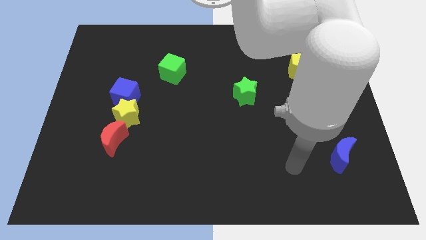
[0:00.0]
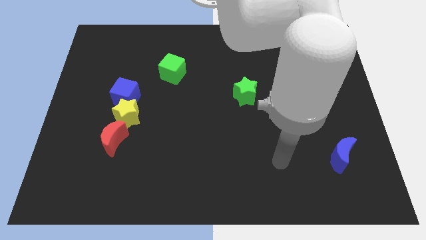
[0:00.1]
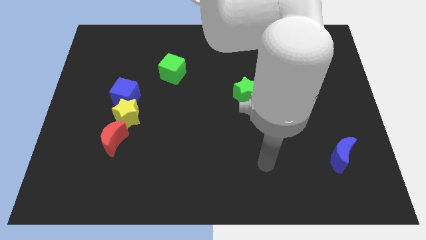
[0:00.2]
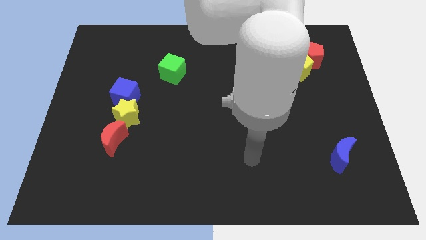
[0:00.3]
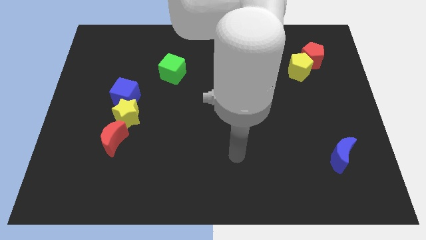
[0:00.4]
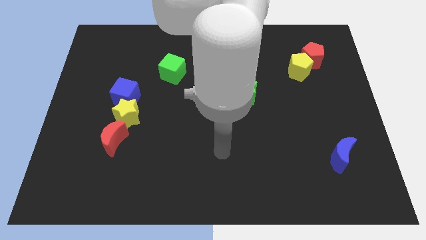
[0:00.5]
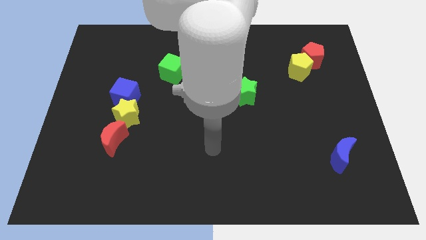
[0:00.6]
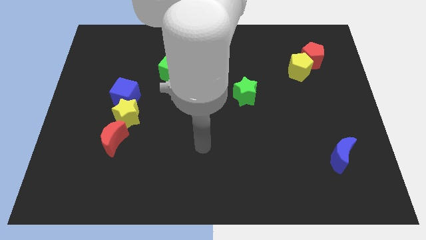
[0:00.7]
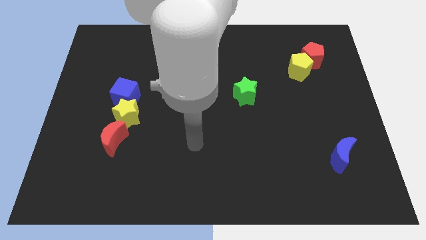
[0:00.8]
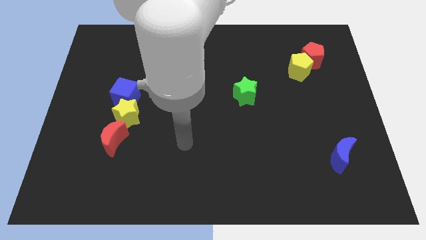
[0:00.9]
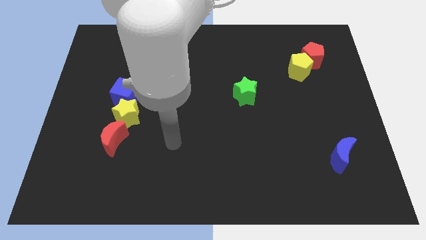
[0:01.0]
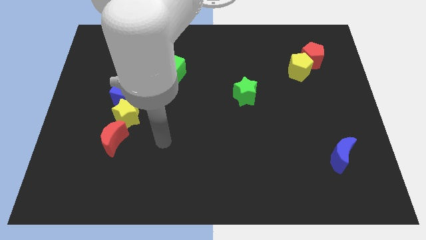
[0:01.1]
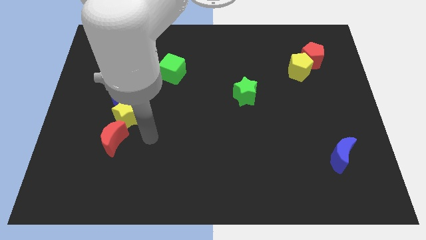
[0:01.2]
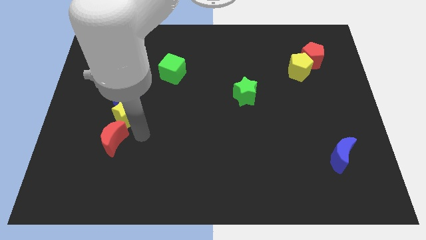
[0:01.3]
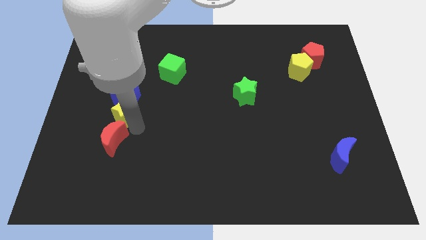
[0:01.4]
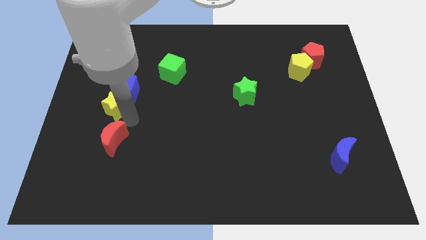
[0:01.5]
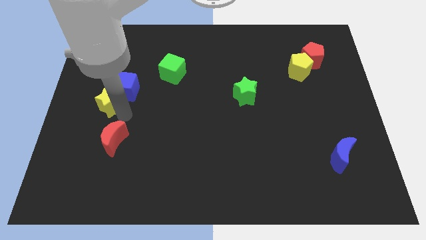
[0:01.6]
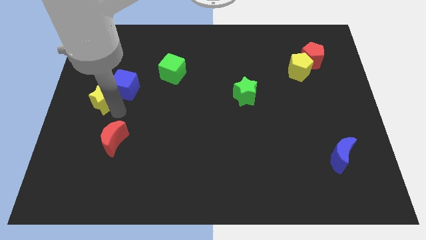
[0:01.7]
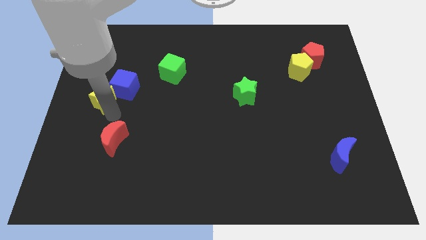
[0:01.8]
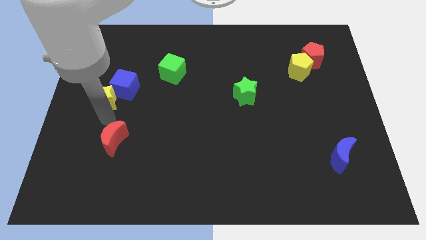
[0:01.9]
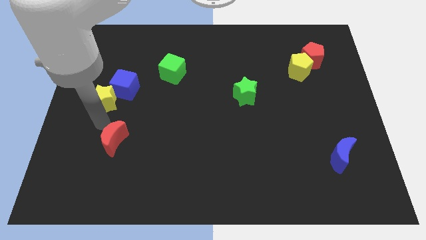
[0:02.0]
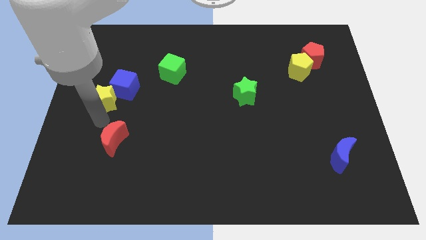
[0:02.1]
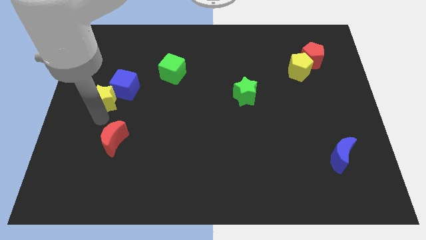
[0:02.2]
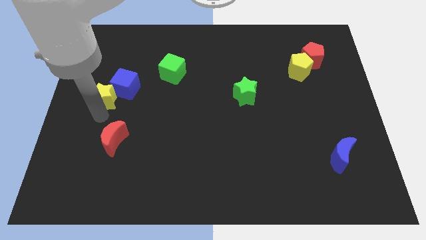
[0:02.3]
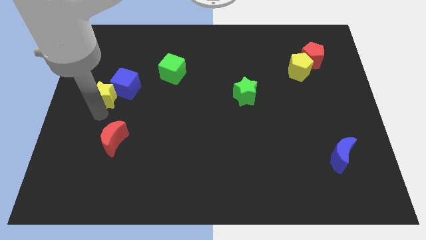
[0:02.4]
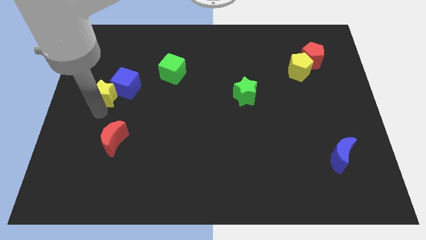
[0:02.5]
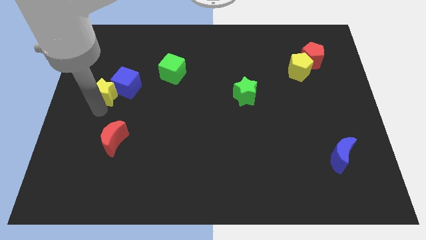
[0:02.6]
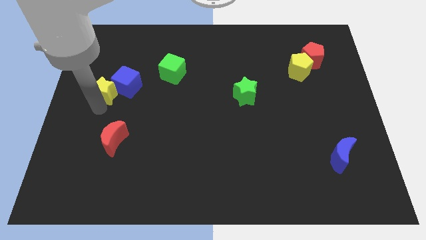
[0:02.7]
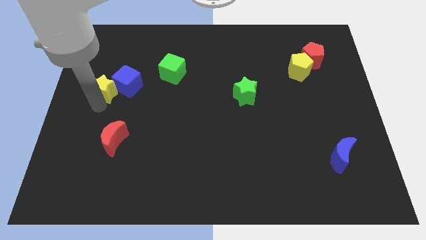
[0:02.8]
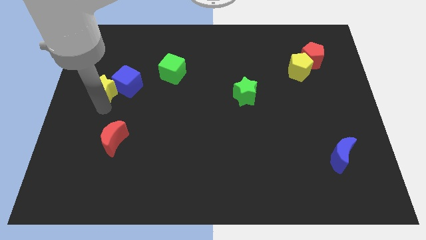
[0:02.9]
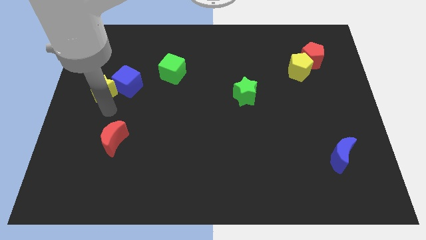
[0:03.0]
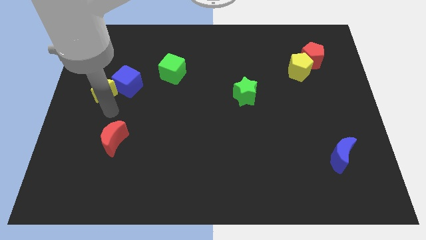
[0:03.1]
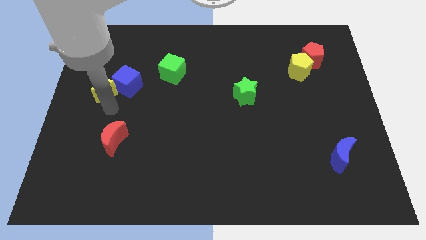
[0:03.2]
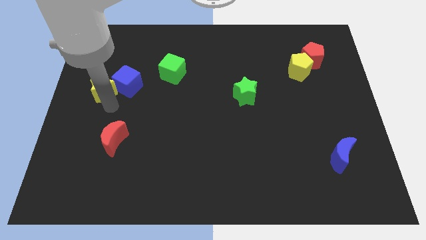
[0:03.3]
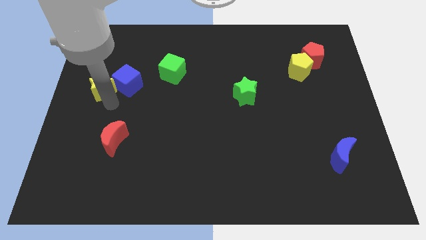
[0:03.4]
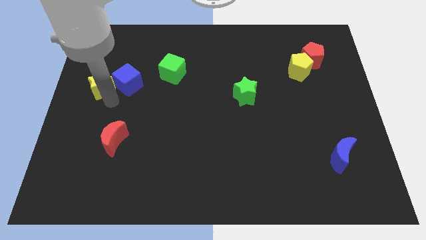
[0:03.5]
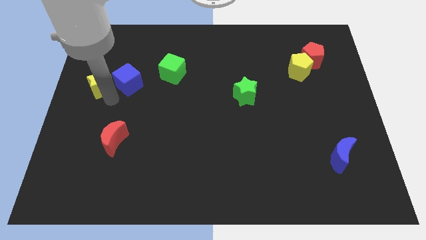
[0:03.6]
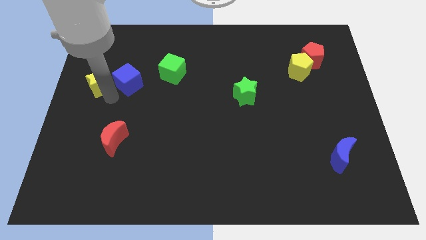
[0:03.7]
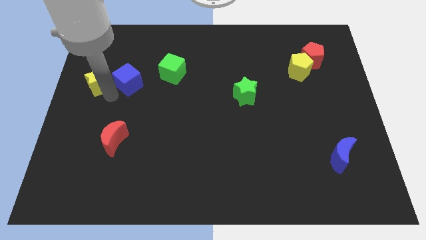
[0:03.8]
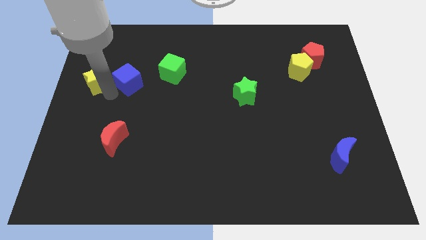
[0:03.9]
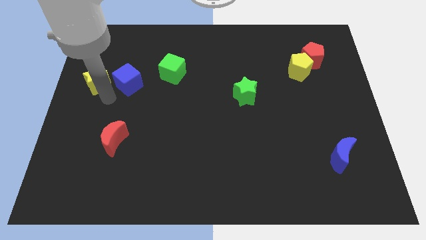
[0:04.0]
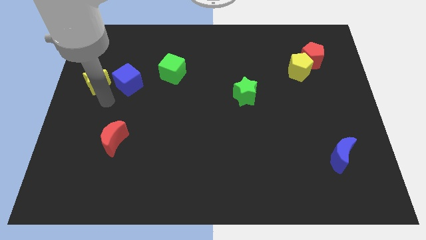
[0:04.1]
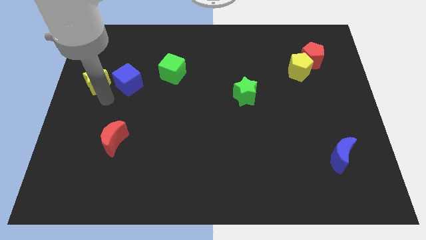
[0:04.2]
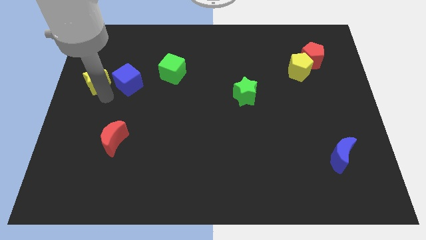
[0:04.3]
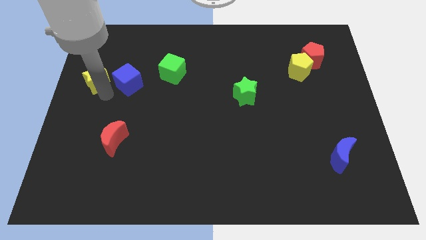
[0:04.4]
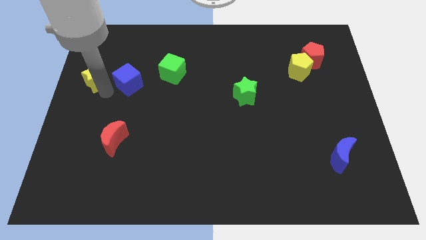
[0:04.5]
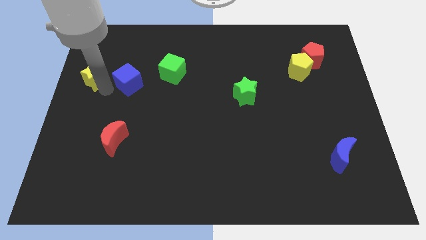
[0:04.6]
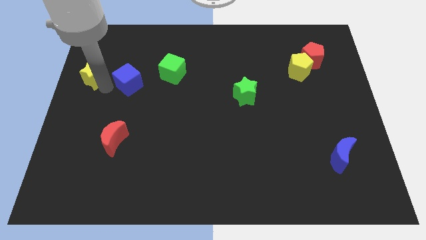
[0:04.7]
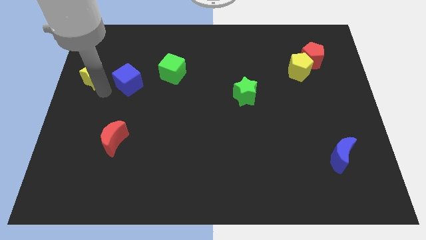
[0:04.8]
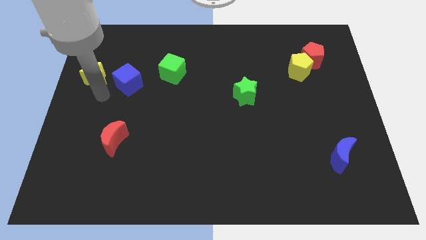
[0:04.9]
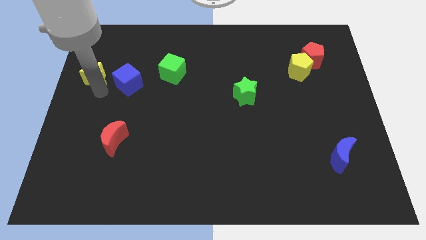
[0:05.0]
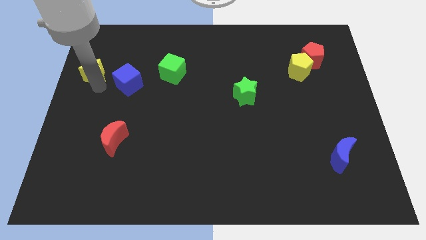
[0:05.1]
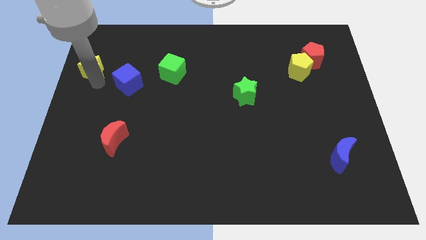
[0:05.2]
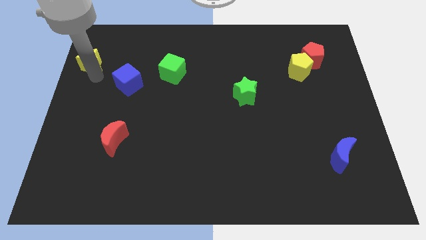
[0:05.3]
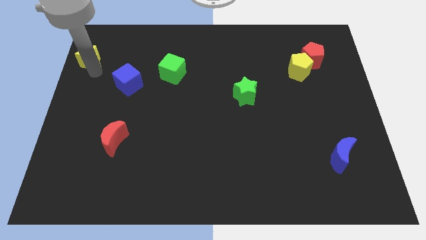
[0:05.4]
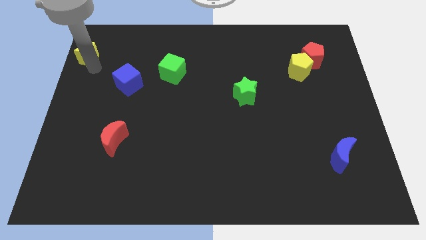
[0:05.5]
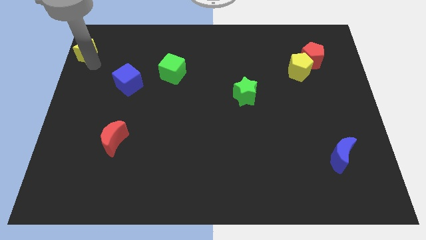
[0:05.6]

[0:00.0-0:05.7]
push the yellow star to the upper left corner

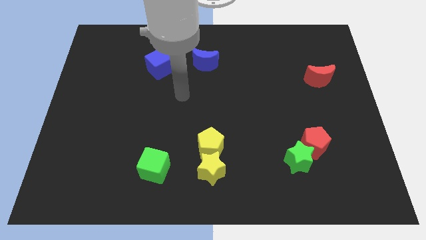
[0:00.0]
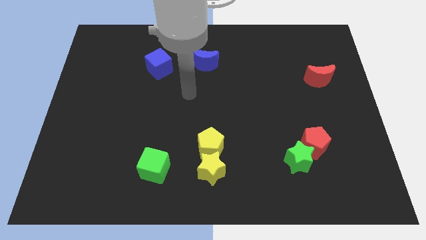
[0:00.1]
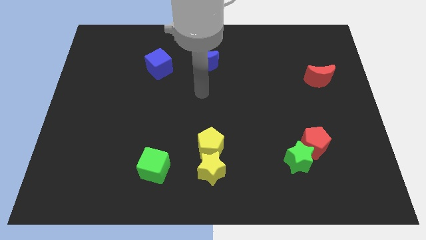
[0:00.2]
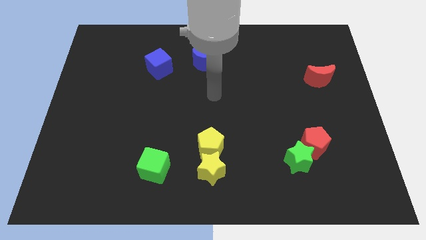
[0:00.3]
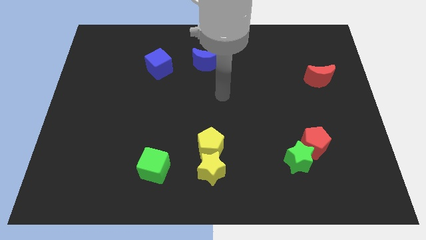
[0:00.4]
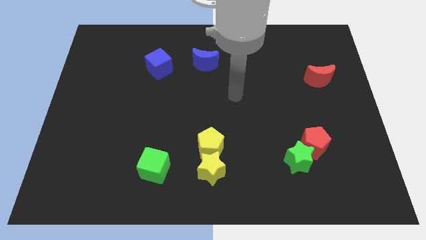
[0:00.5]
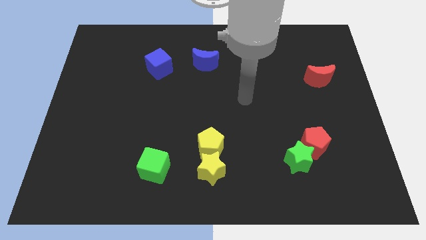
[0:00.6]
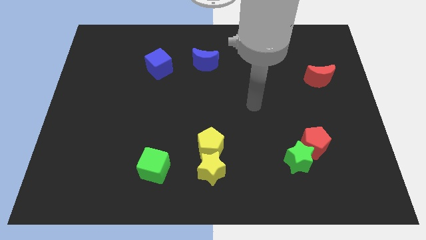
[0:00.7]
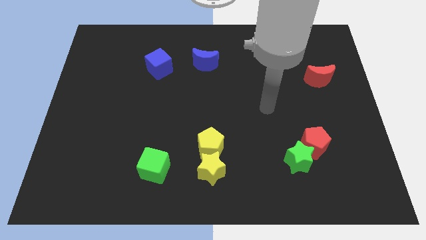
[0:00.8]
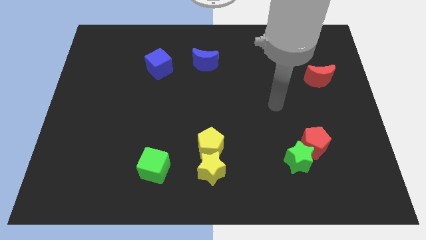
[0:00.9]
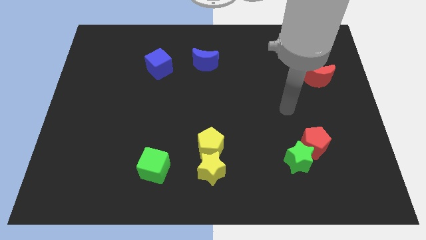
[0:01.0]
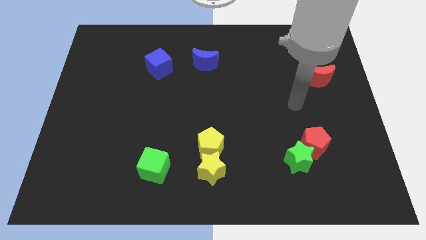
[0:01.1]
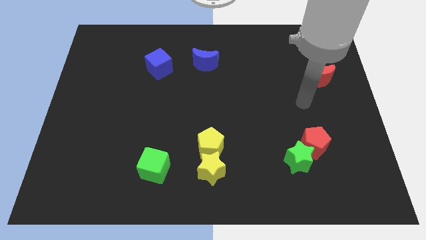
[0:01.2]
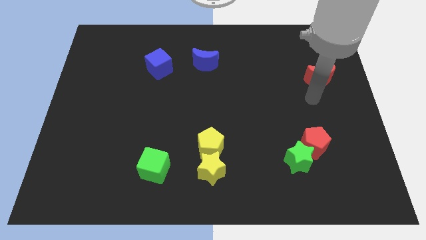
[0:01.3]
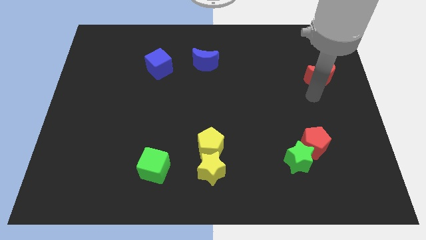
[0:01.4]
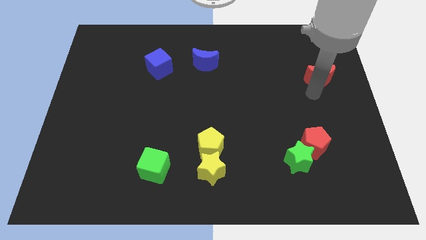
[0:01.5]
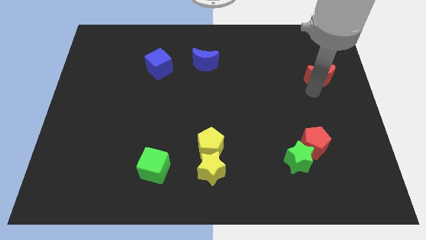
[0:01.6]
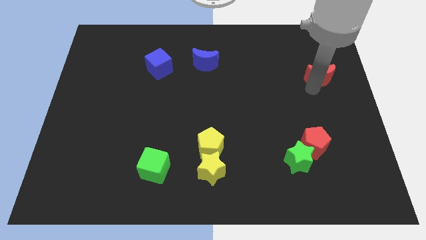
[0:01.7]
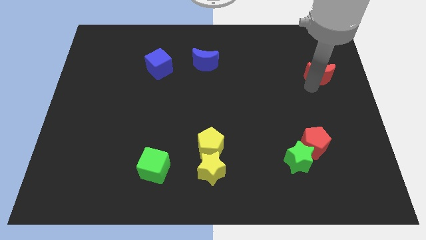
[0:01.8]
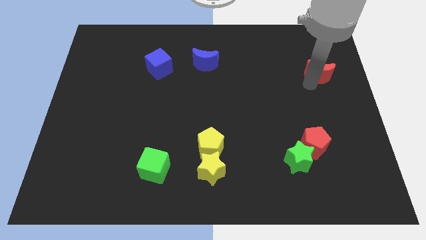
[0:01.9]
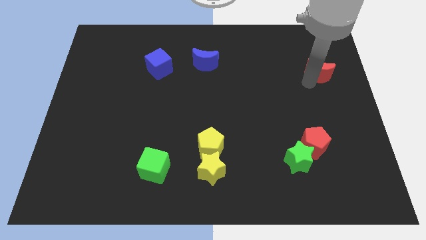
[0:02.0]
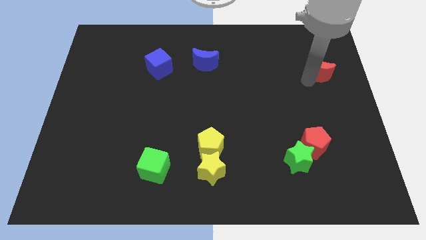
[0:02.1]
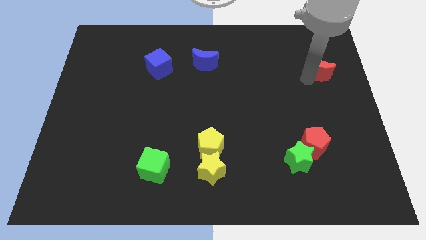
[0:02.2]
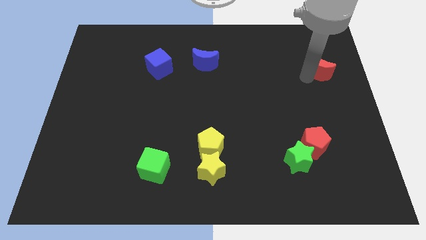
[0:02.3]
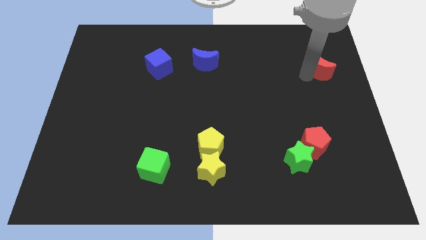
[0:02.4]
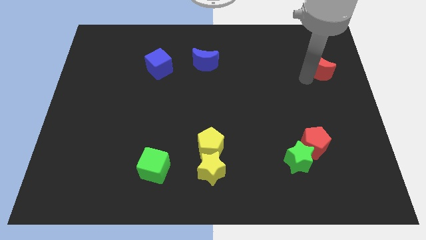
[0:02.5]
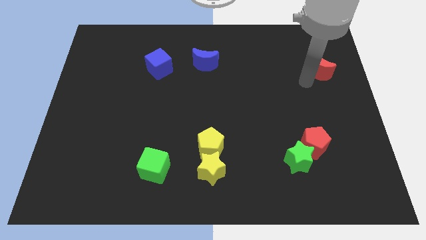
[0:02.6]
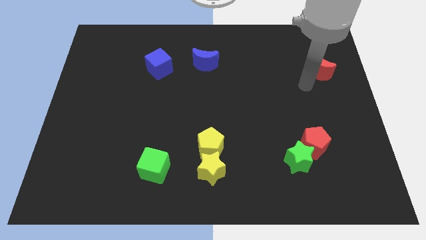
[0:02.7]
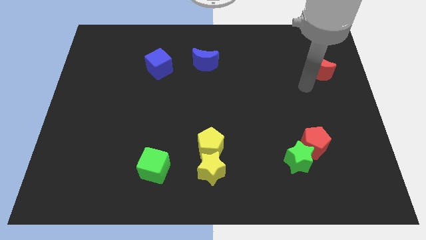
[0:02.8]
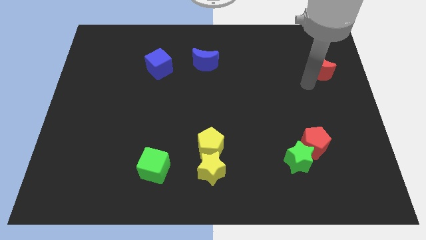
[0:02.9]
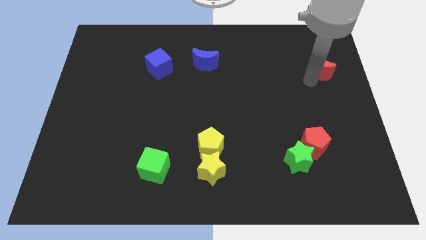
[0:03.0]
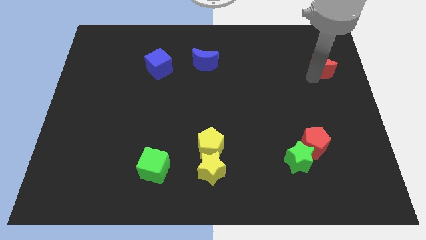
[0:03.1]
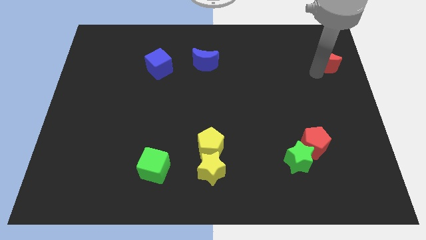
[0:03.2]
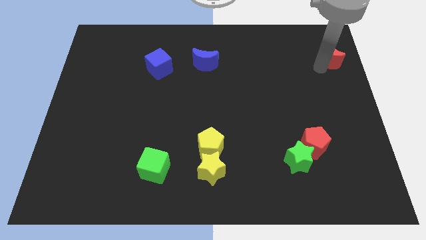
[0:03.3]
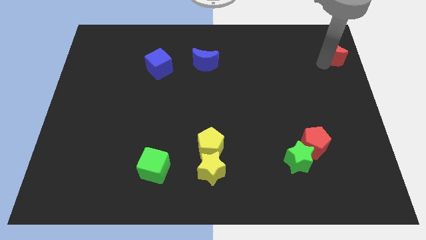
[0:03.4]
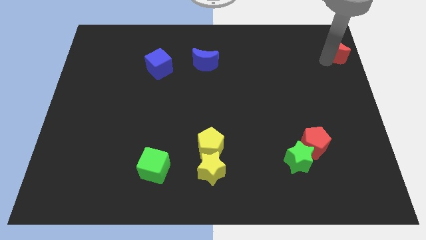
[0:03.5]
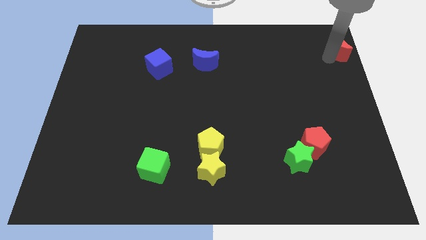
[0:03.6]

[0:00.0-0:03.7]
put the red moon to the top right
